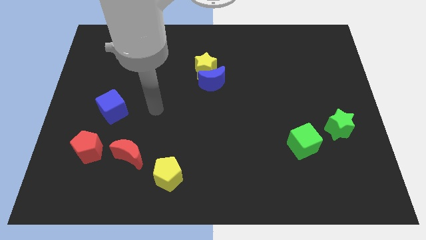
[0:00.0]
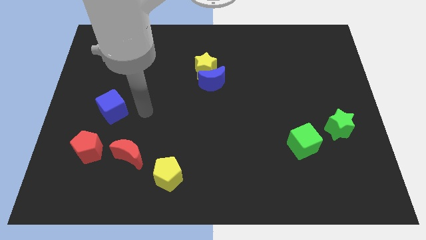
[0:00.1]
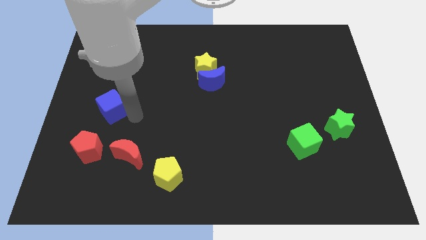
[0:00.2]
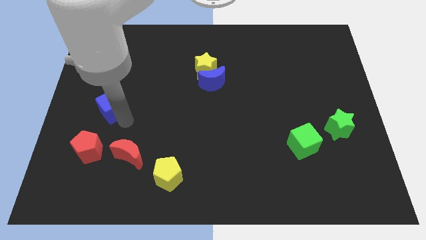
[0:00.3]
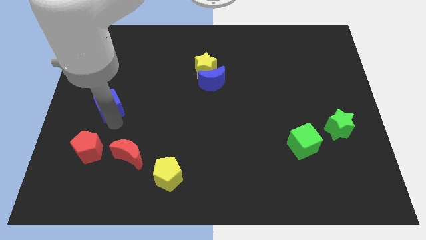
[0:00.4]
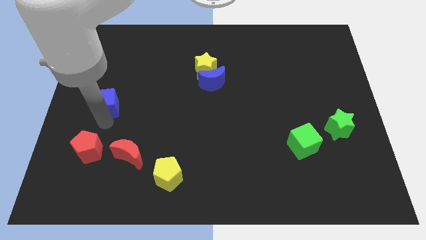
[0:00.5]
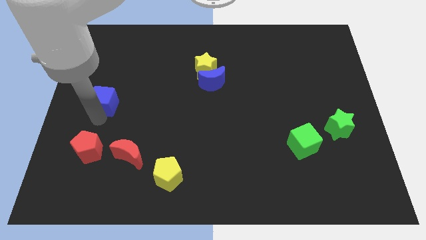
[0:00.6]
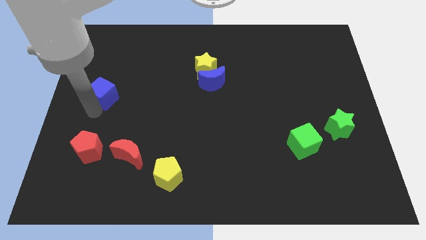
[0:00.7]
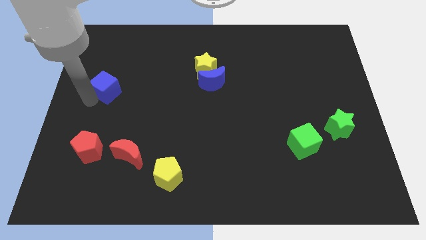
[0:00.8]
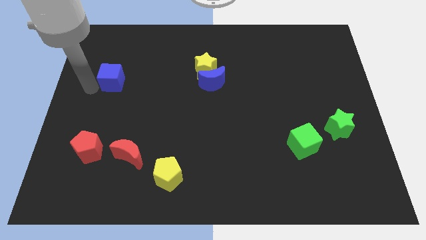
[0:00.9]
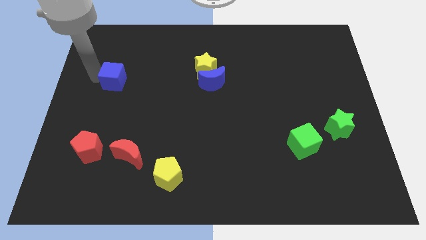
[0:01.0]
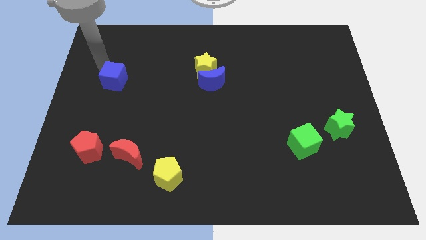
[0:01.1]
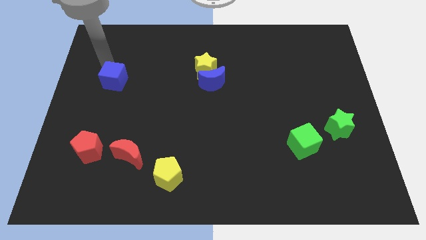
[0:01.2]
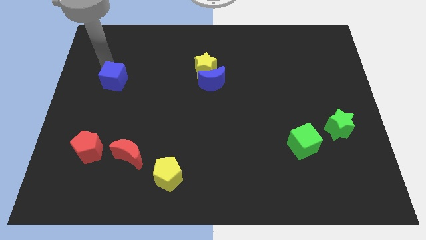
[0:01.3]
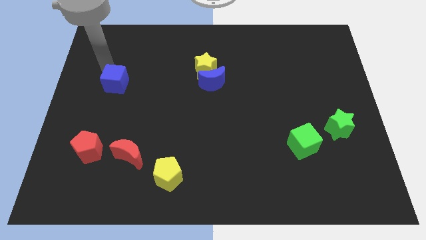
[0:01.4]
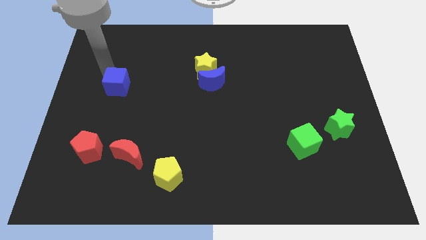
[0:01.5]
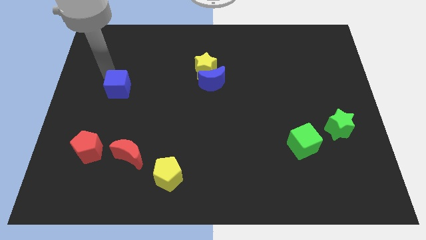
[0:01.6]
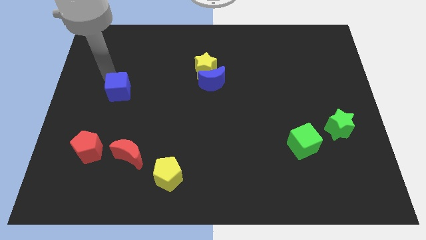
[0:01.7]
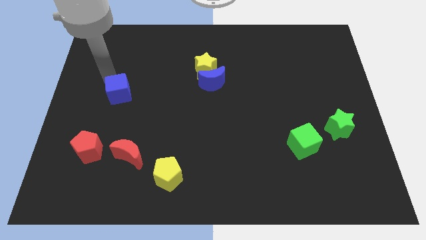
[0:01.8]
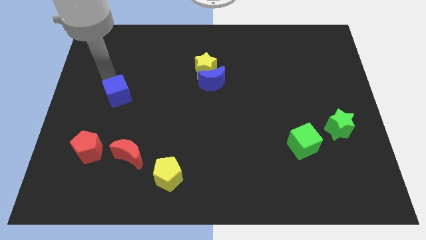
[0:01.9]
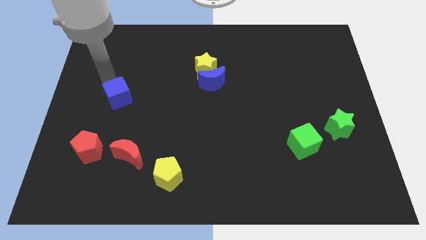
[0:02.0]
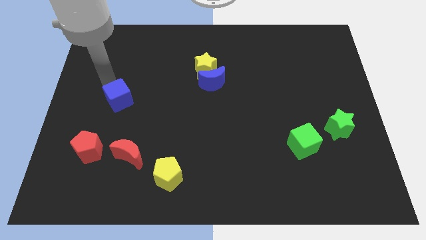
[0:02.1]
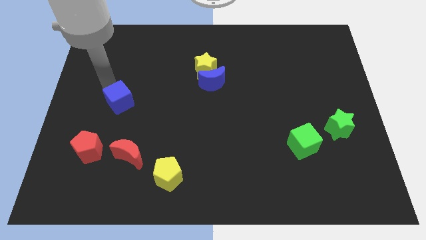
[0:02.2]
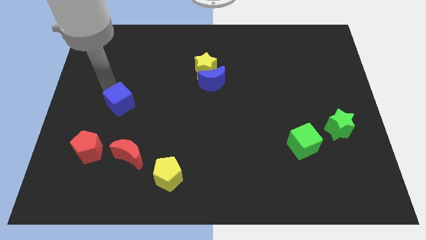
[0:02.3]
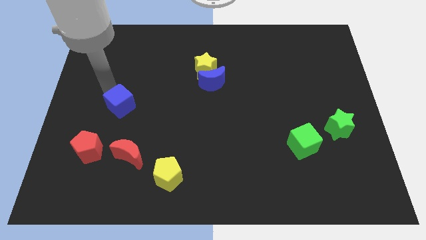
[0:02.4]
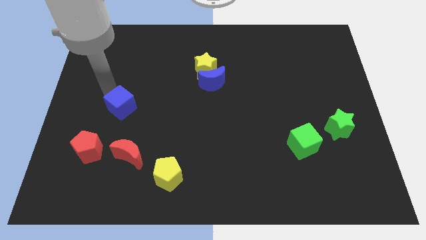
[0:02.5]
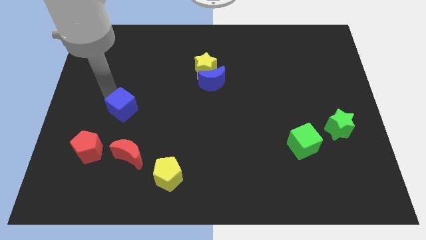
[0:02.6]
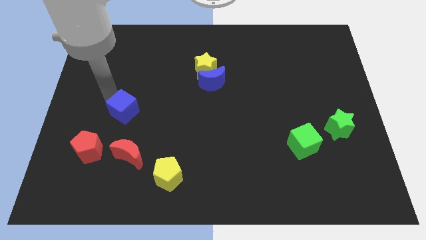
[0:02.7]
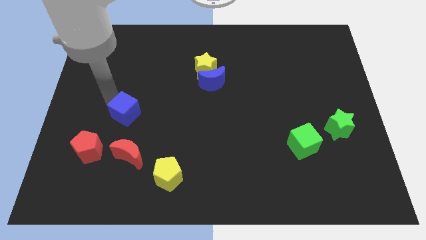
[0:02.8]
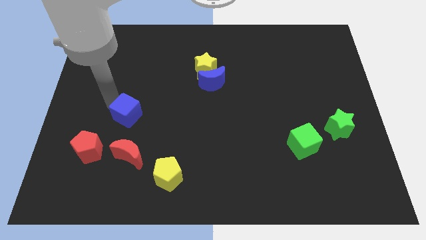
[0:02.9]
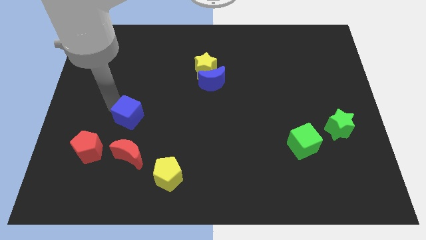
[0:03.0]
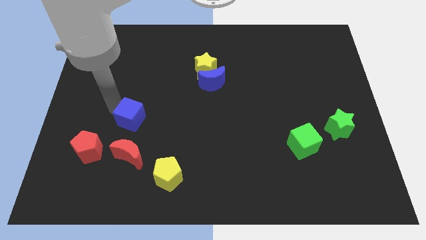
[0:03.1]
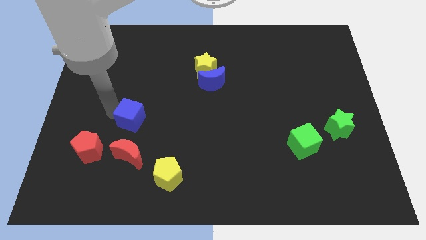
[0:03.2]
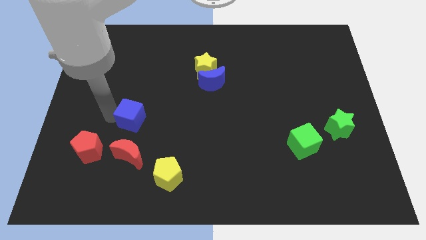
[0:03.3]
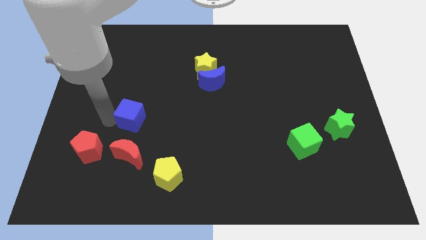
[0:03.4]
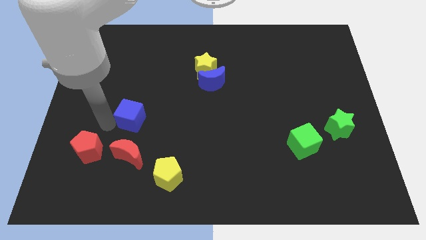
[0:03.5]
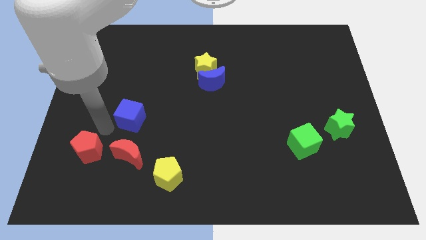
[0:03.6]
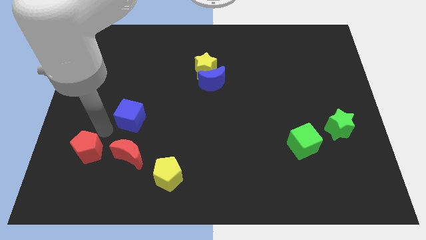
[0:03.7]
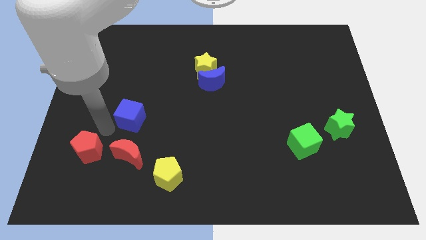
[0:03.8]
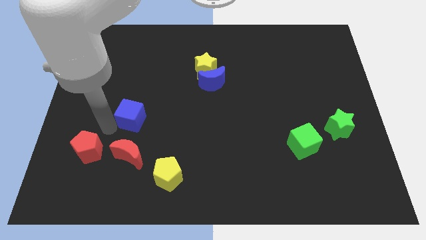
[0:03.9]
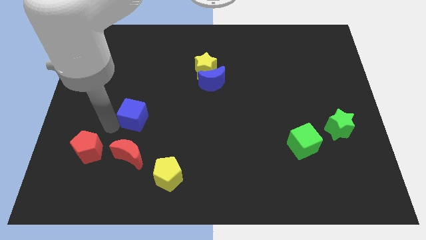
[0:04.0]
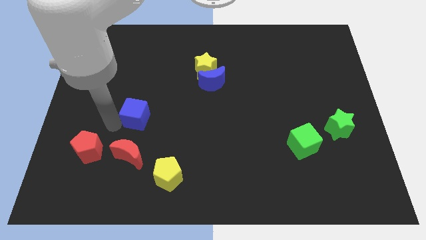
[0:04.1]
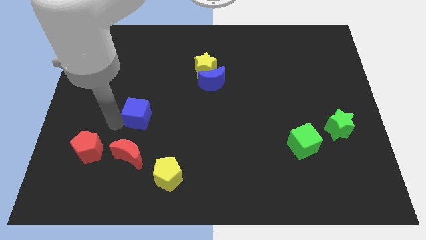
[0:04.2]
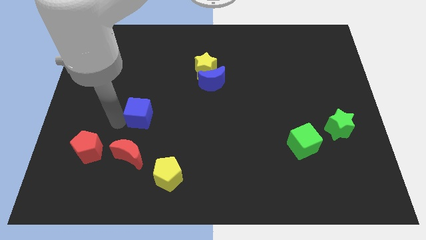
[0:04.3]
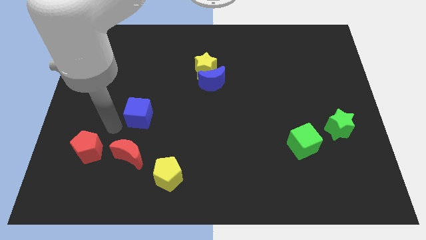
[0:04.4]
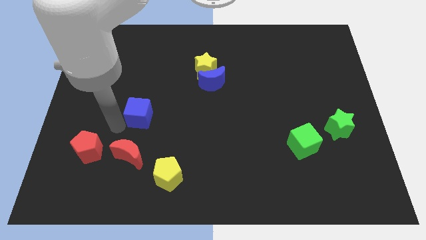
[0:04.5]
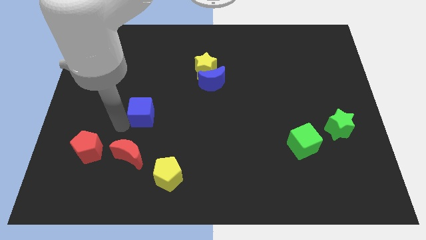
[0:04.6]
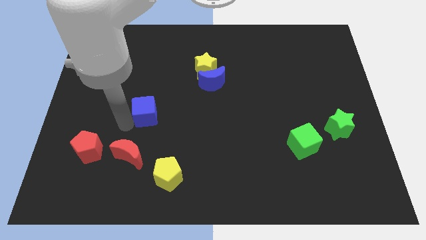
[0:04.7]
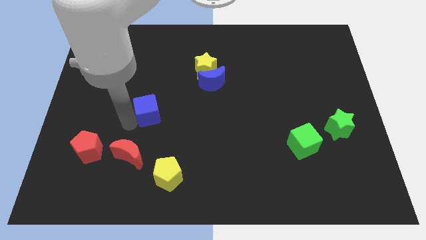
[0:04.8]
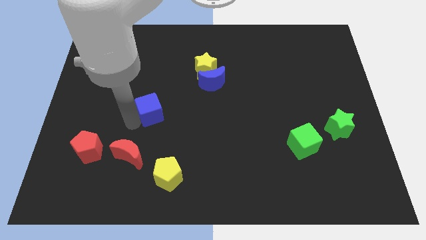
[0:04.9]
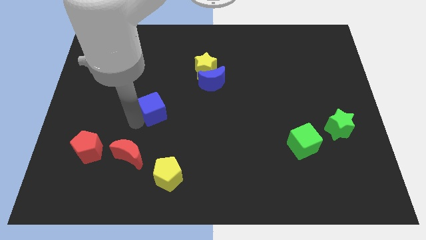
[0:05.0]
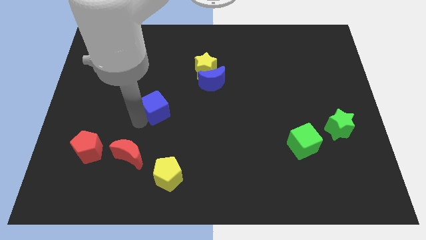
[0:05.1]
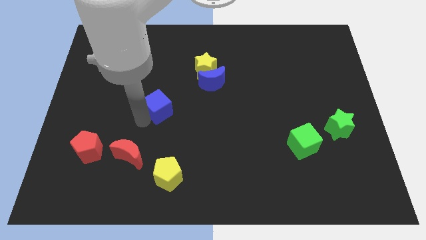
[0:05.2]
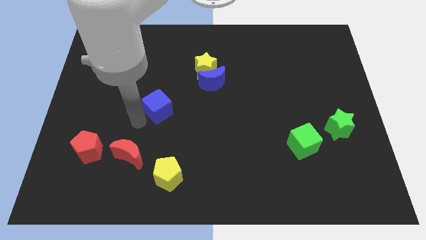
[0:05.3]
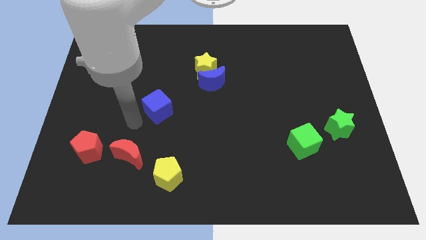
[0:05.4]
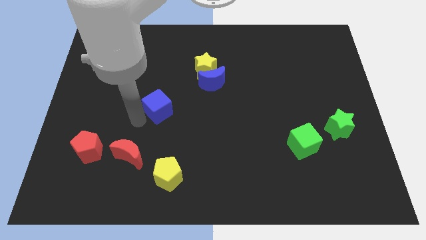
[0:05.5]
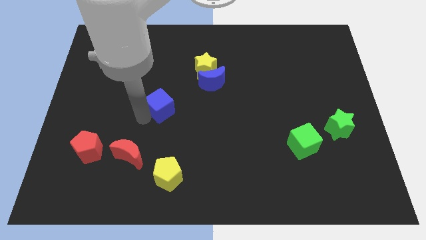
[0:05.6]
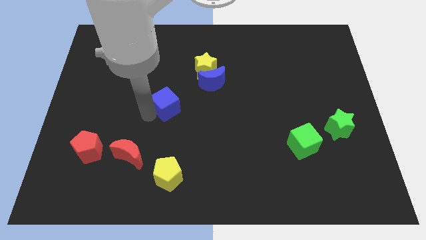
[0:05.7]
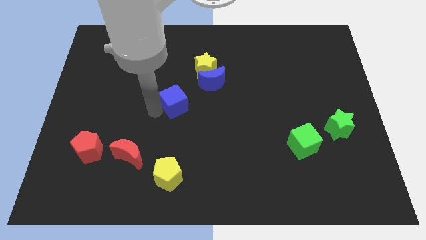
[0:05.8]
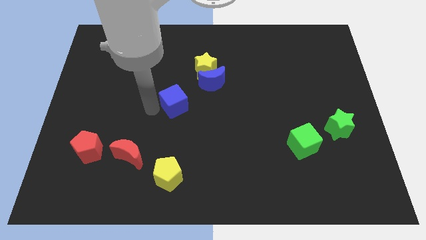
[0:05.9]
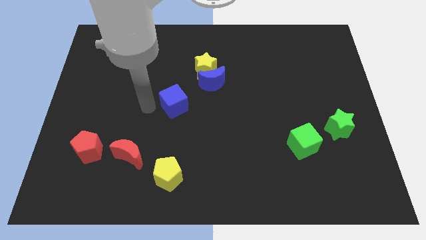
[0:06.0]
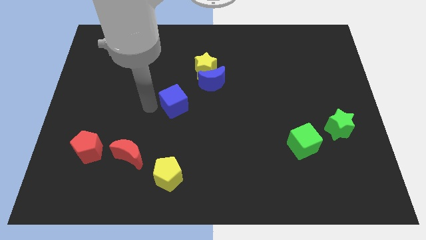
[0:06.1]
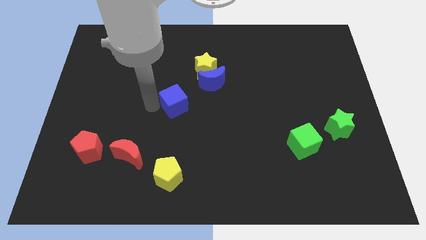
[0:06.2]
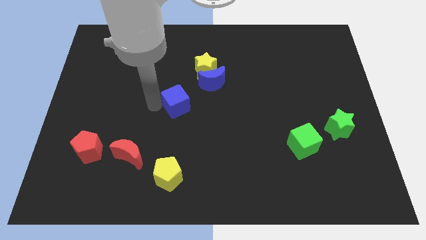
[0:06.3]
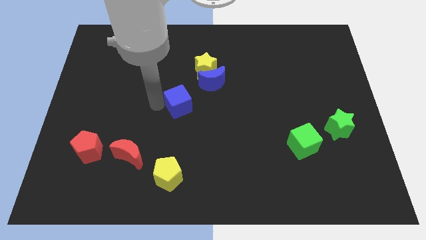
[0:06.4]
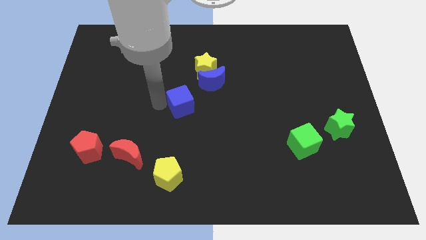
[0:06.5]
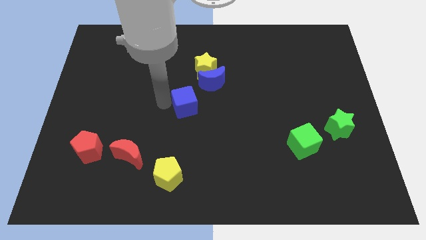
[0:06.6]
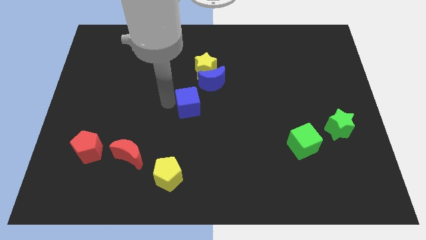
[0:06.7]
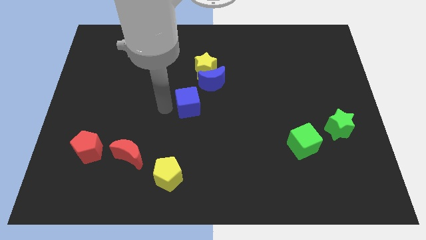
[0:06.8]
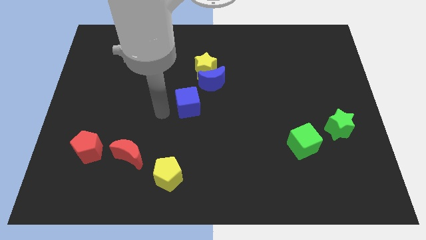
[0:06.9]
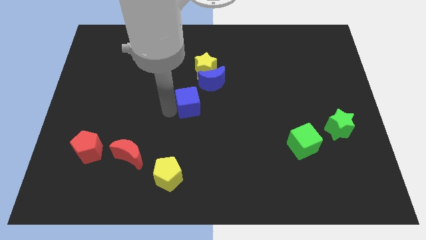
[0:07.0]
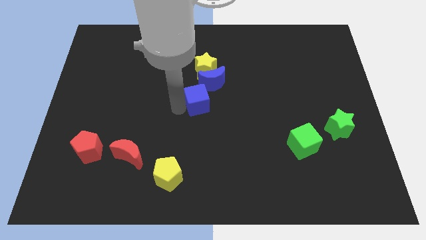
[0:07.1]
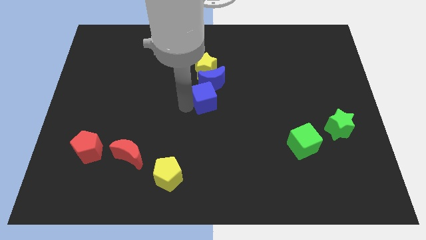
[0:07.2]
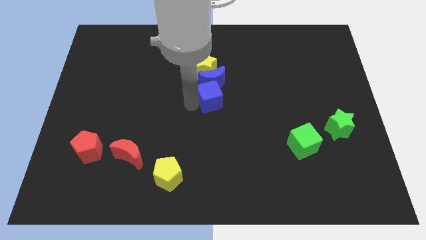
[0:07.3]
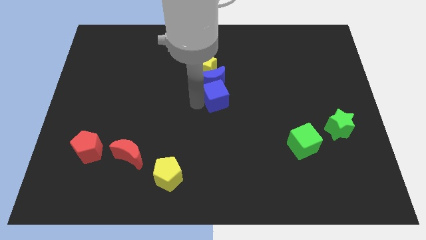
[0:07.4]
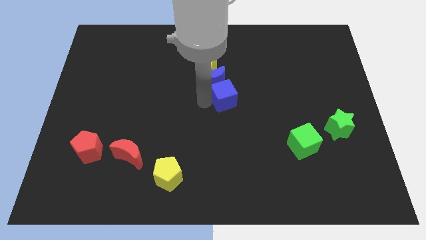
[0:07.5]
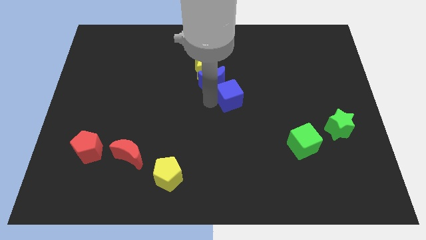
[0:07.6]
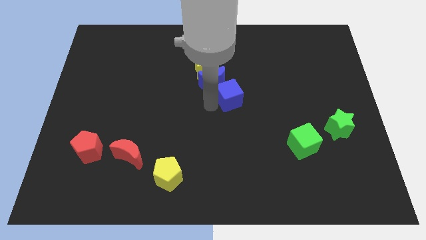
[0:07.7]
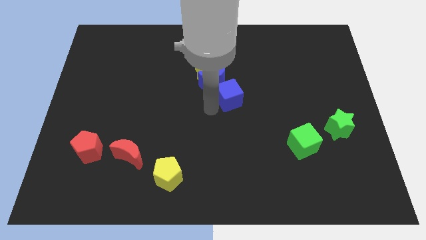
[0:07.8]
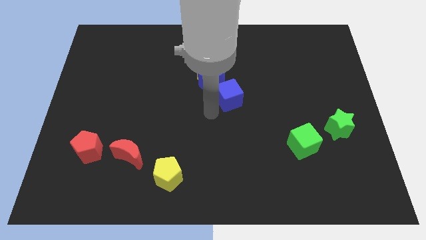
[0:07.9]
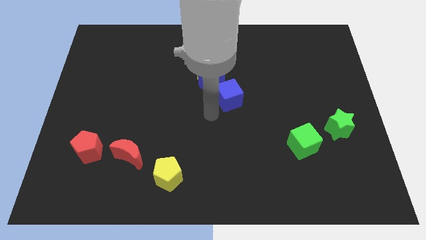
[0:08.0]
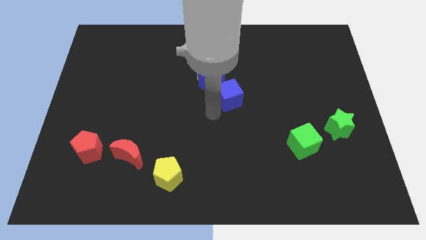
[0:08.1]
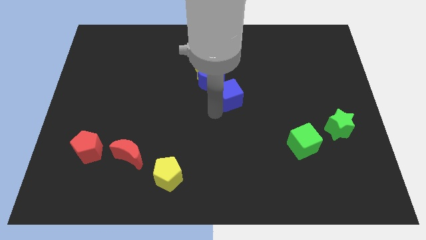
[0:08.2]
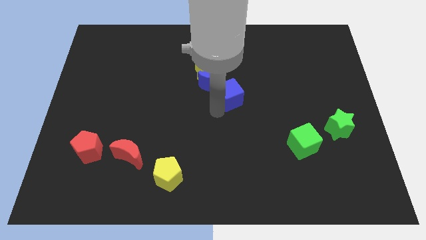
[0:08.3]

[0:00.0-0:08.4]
push the blue cube just right of the blue moon
